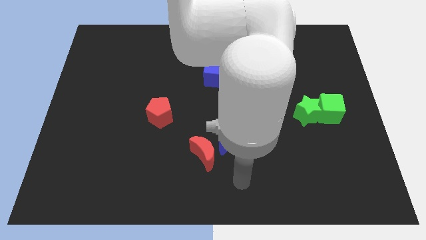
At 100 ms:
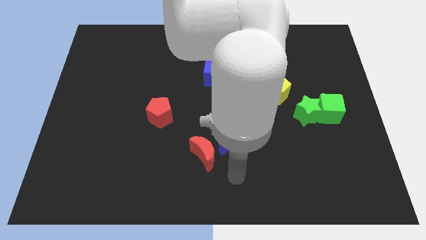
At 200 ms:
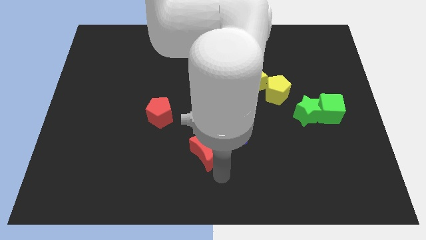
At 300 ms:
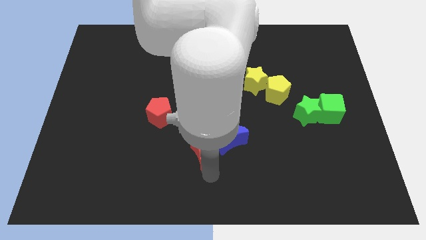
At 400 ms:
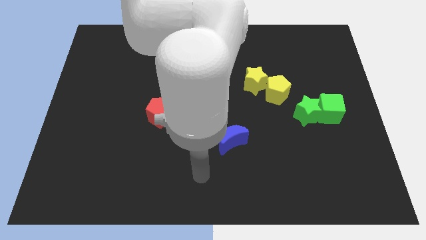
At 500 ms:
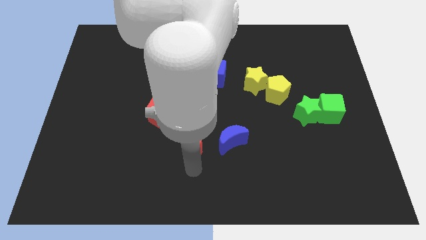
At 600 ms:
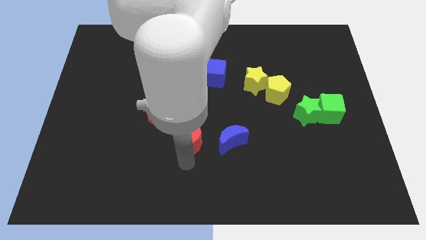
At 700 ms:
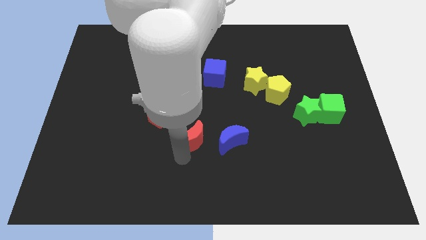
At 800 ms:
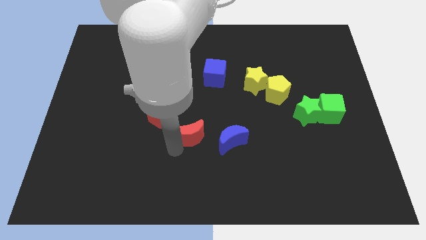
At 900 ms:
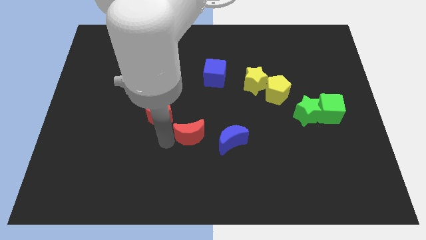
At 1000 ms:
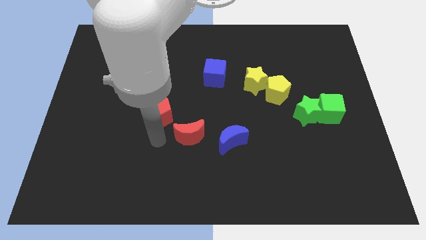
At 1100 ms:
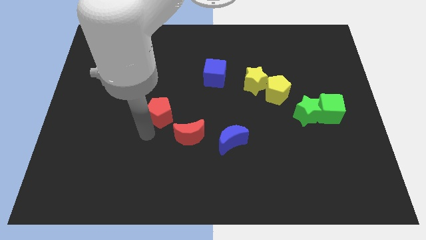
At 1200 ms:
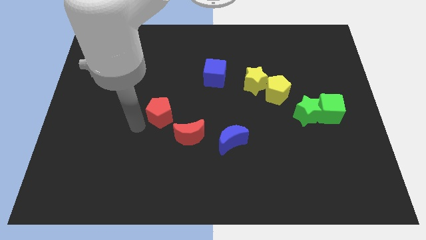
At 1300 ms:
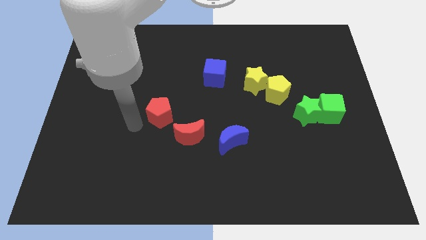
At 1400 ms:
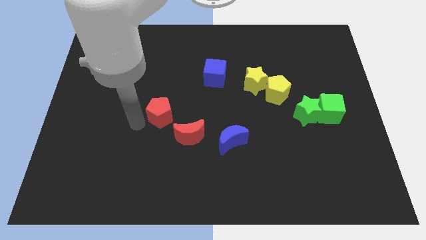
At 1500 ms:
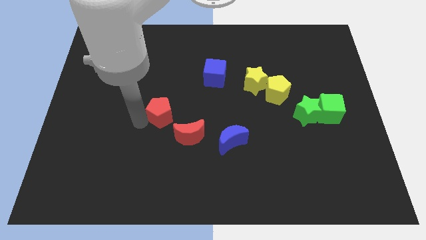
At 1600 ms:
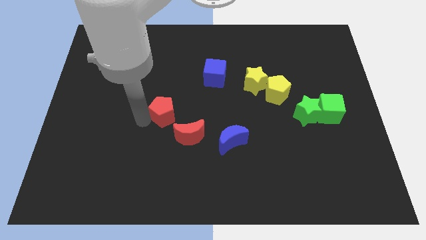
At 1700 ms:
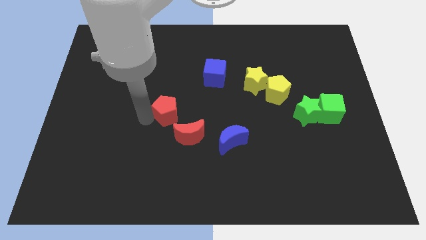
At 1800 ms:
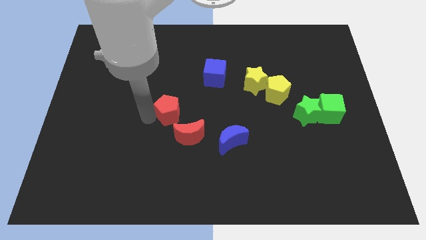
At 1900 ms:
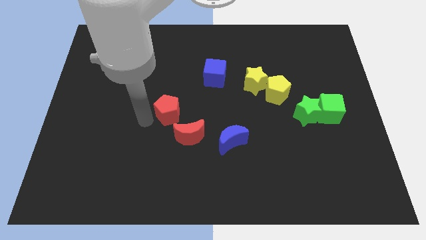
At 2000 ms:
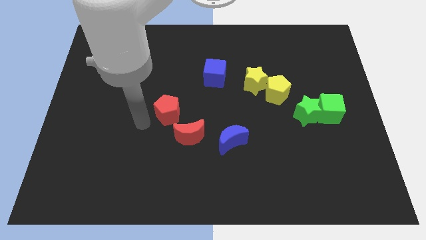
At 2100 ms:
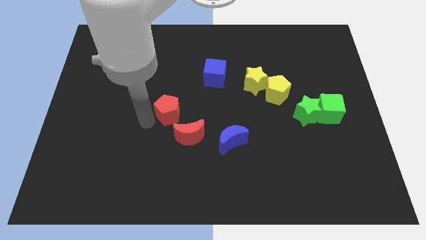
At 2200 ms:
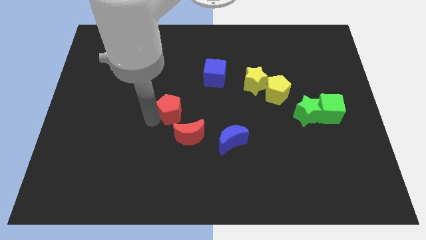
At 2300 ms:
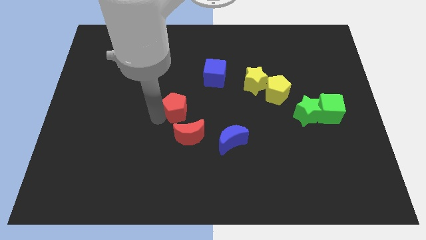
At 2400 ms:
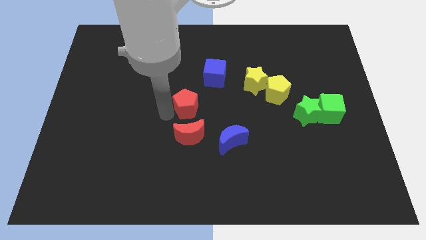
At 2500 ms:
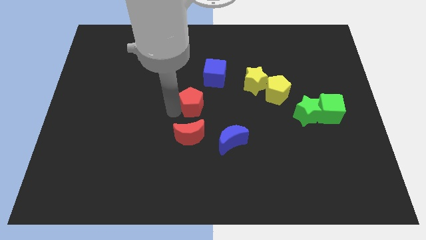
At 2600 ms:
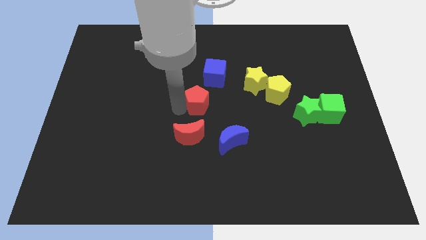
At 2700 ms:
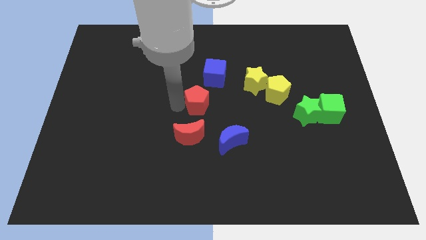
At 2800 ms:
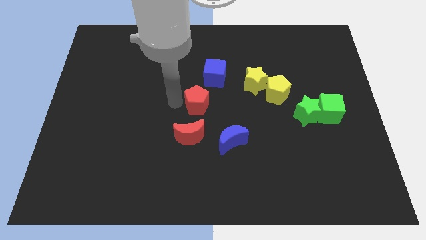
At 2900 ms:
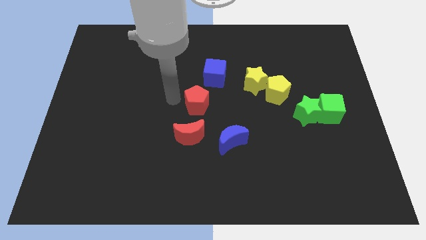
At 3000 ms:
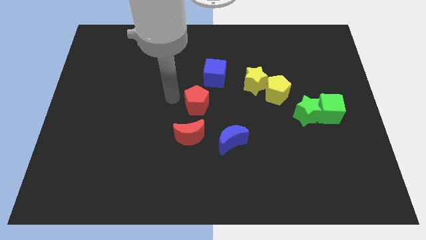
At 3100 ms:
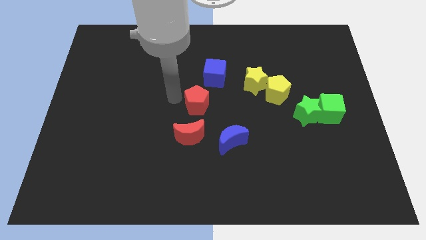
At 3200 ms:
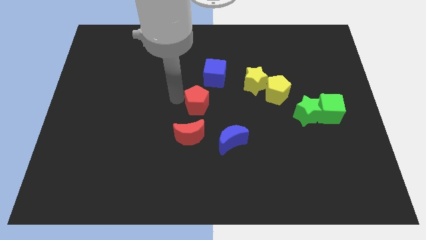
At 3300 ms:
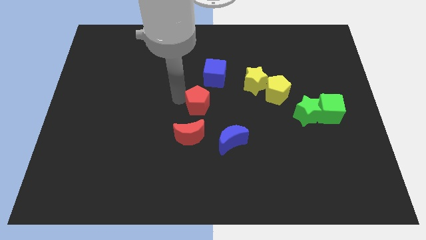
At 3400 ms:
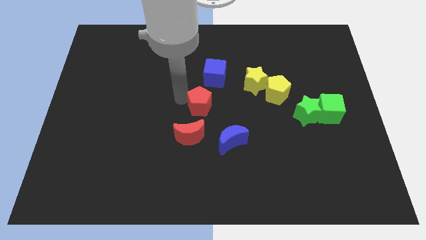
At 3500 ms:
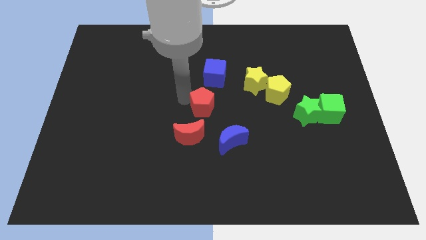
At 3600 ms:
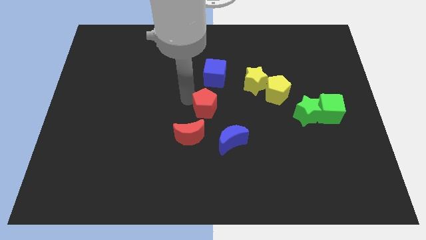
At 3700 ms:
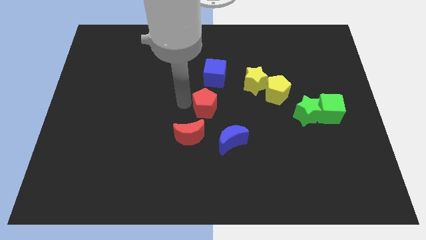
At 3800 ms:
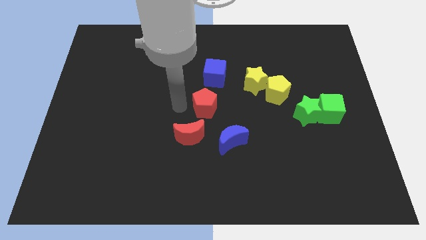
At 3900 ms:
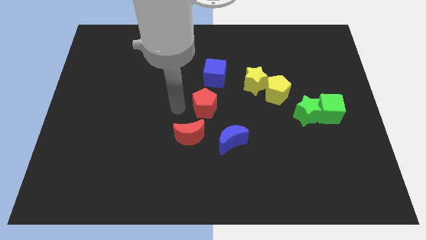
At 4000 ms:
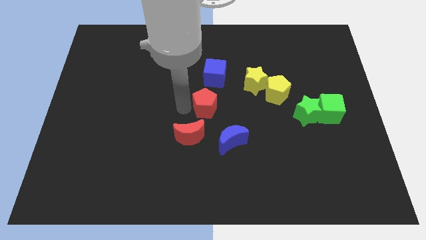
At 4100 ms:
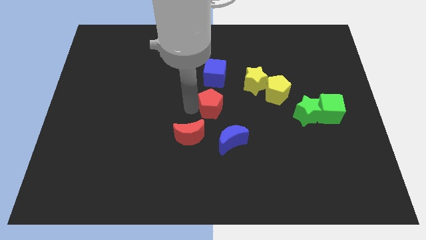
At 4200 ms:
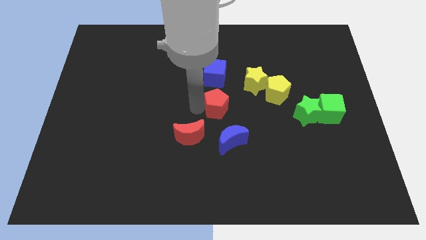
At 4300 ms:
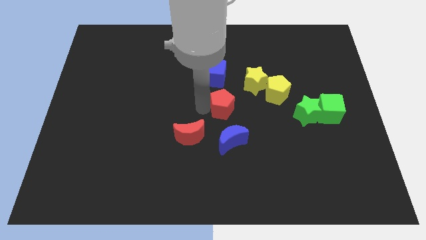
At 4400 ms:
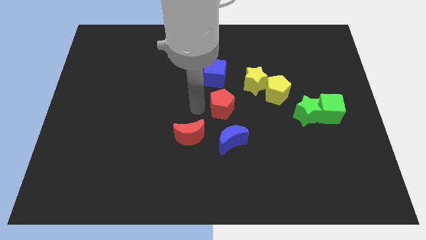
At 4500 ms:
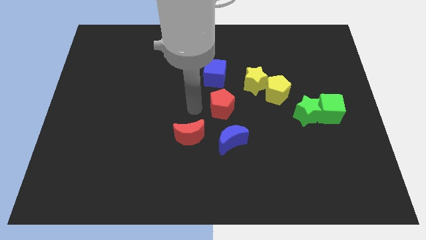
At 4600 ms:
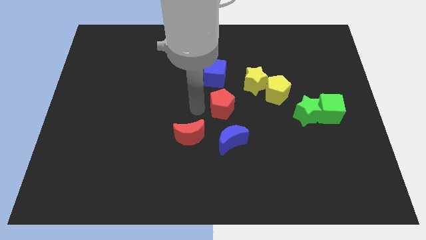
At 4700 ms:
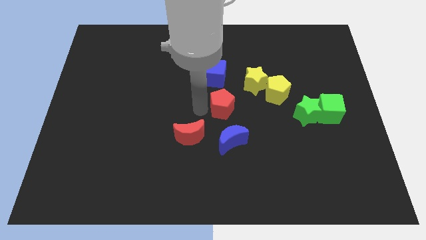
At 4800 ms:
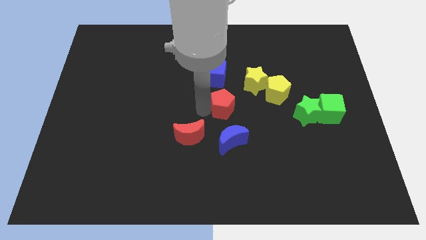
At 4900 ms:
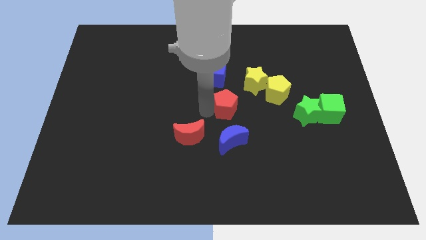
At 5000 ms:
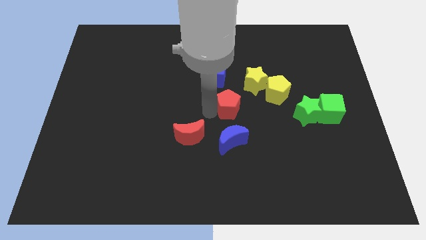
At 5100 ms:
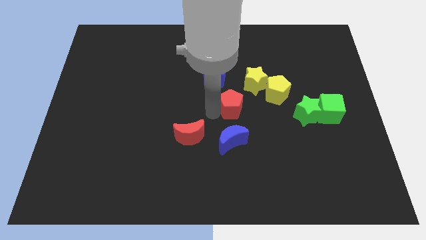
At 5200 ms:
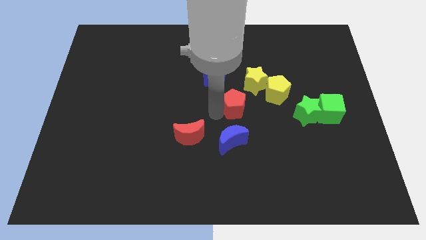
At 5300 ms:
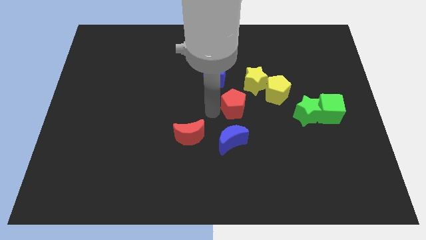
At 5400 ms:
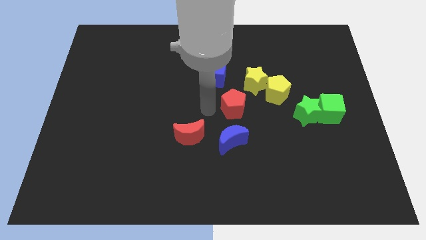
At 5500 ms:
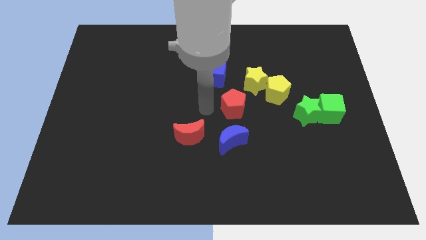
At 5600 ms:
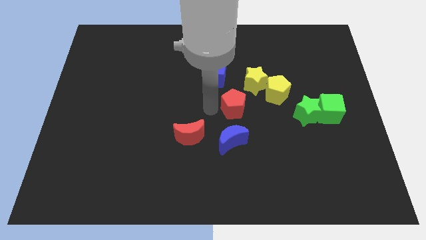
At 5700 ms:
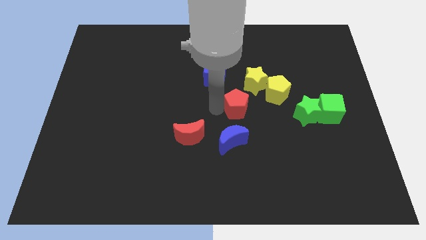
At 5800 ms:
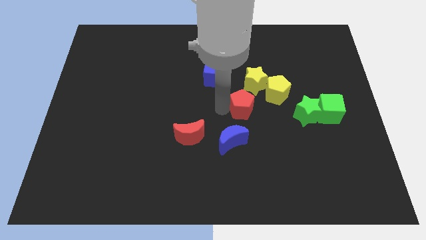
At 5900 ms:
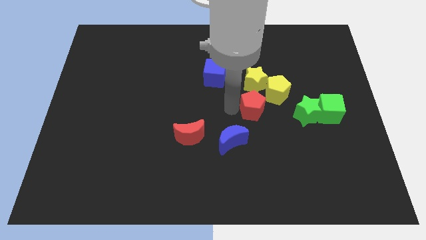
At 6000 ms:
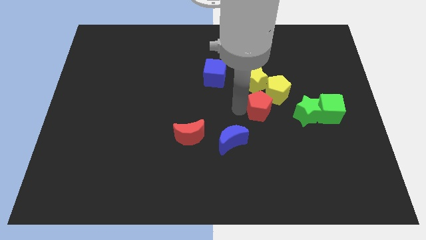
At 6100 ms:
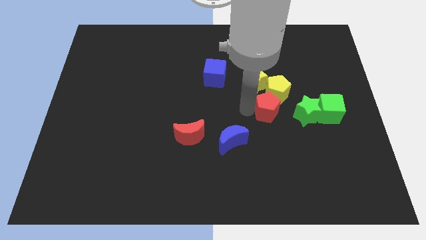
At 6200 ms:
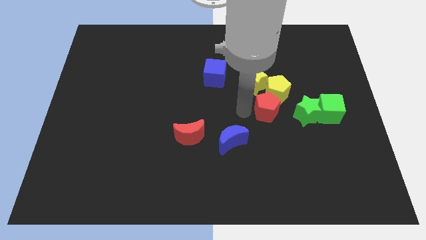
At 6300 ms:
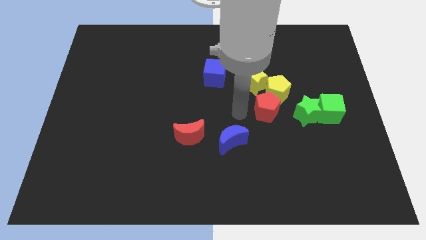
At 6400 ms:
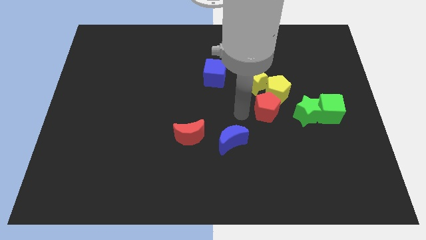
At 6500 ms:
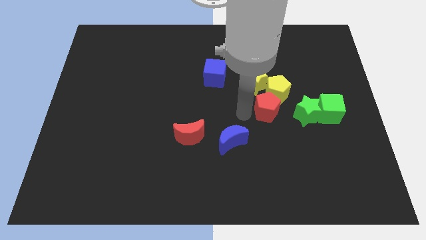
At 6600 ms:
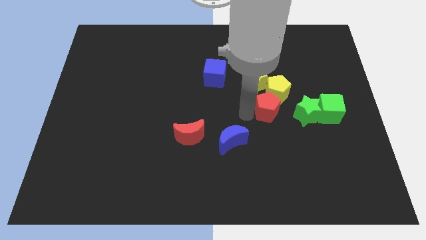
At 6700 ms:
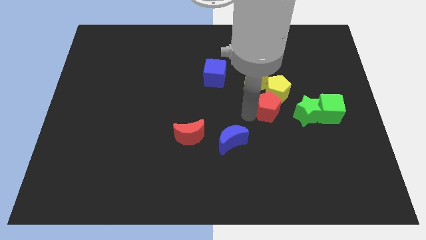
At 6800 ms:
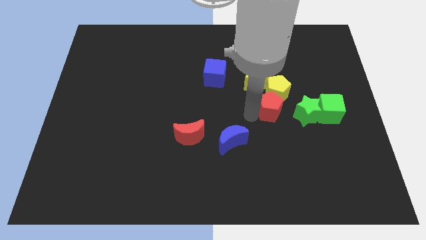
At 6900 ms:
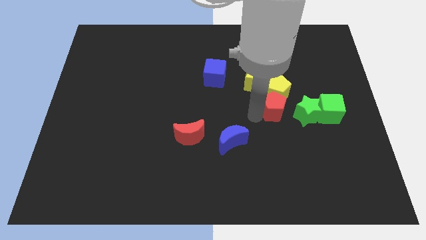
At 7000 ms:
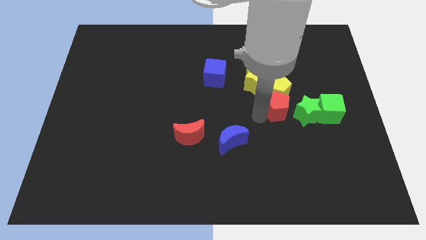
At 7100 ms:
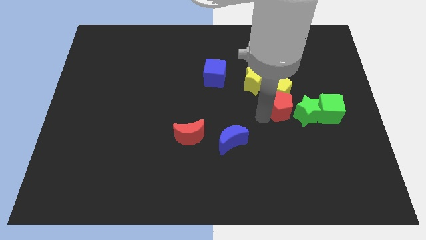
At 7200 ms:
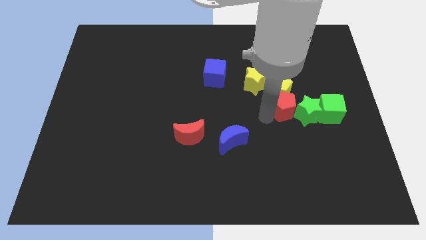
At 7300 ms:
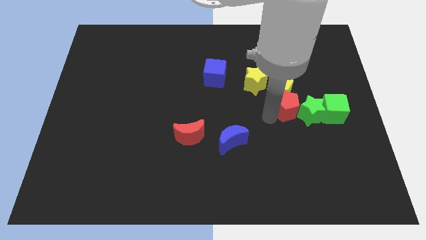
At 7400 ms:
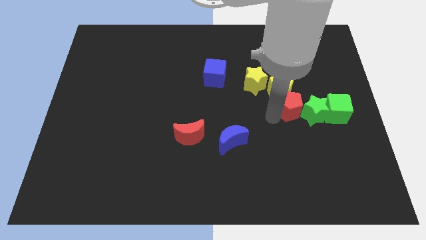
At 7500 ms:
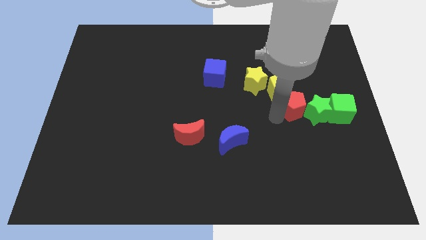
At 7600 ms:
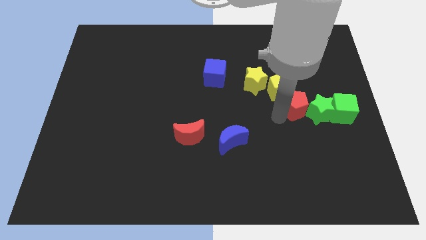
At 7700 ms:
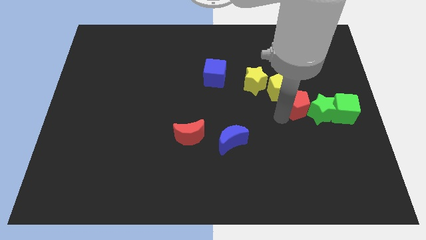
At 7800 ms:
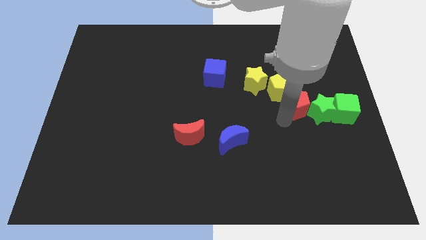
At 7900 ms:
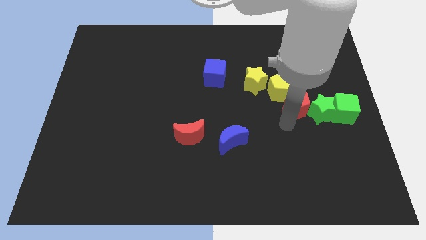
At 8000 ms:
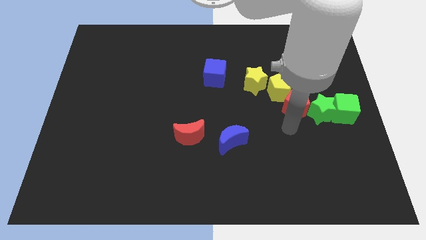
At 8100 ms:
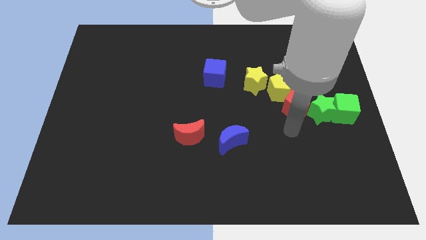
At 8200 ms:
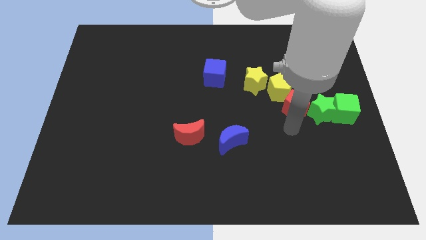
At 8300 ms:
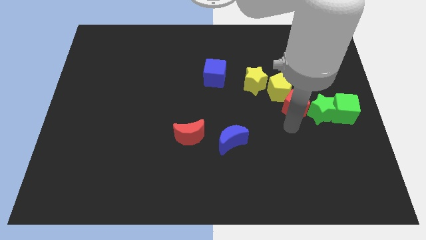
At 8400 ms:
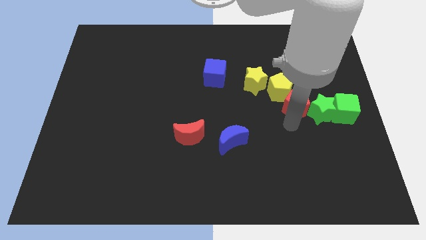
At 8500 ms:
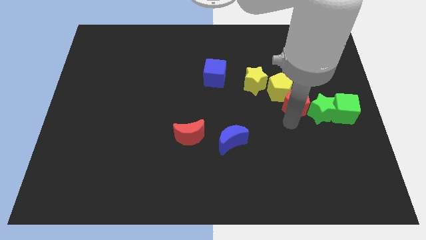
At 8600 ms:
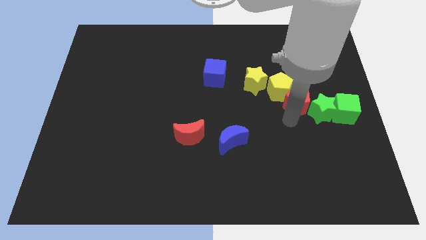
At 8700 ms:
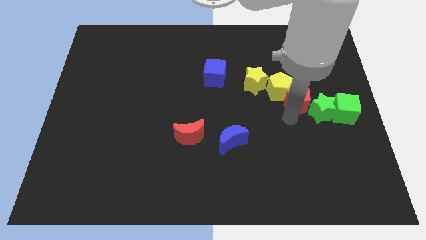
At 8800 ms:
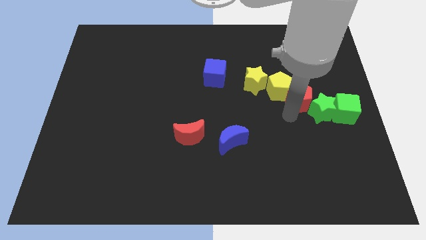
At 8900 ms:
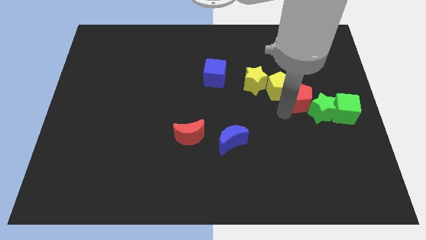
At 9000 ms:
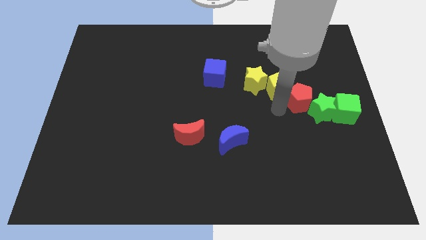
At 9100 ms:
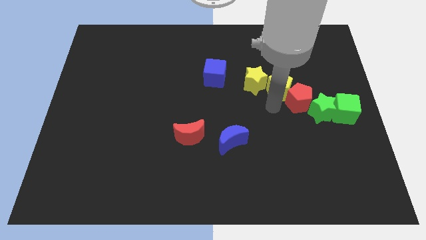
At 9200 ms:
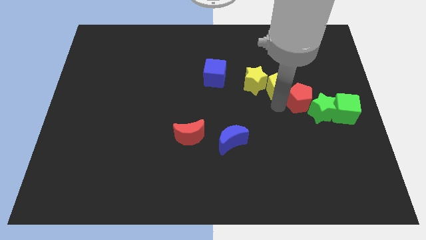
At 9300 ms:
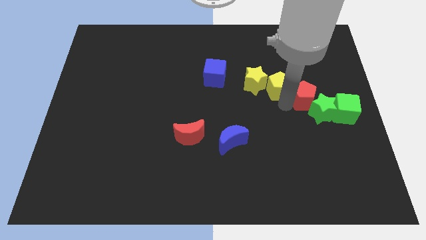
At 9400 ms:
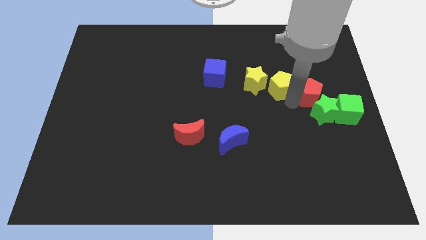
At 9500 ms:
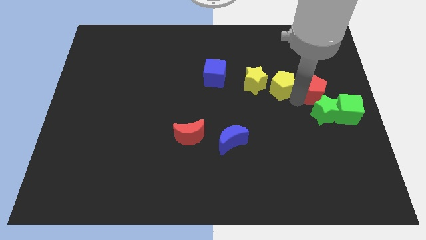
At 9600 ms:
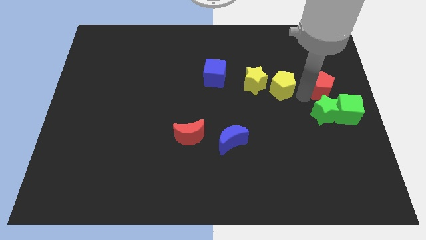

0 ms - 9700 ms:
slide the red pentagon to the right side
